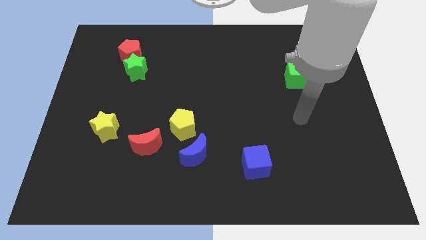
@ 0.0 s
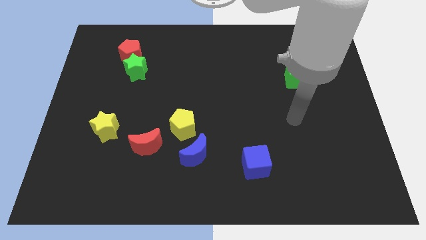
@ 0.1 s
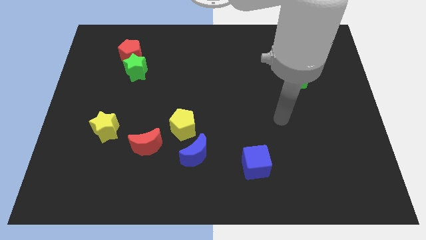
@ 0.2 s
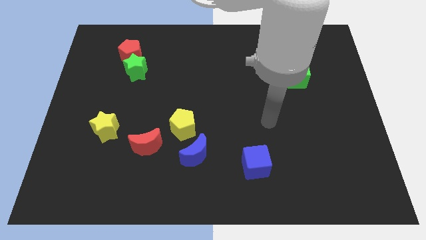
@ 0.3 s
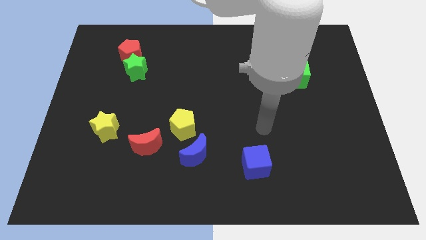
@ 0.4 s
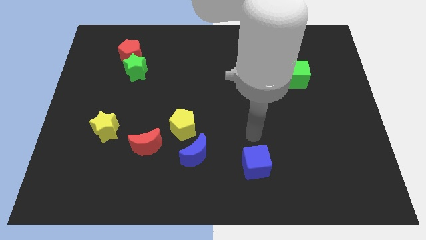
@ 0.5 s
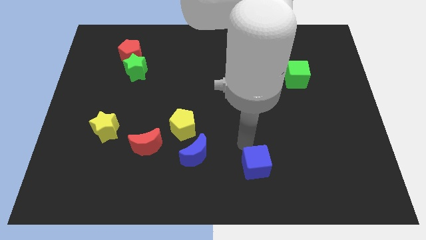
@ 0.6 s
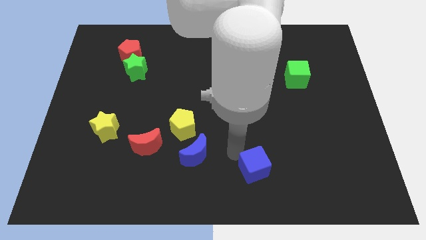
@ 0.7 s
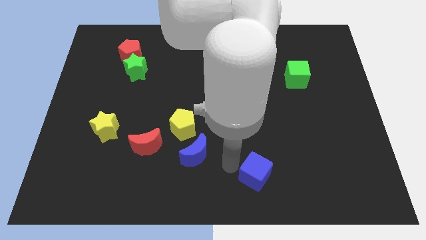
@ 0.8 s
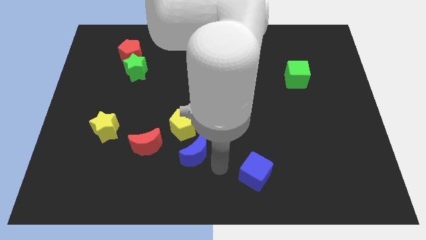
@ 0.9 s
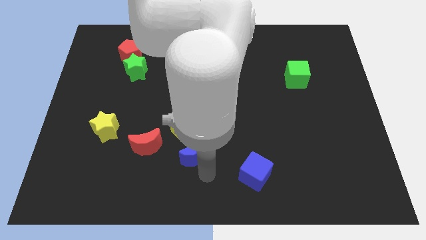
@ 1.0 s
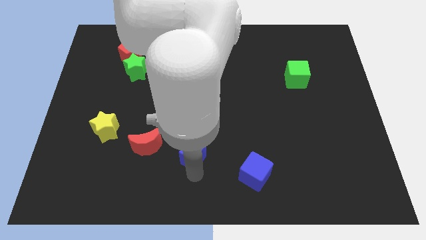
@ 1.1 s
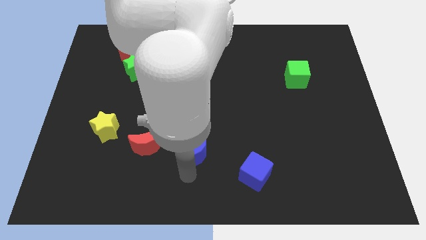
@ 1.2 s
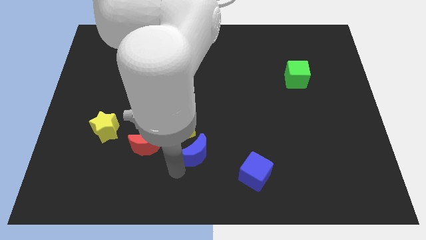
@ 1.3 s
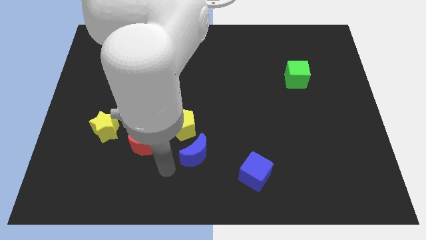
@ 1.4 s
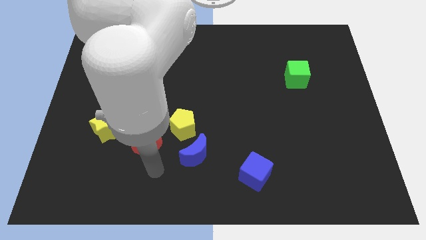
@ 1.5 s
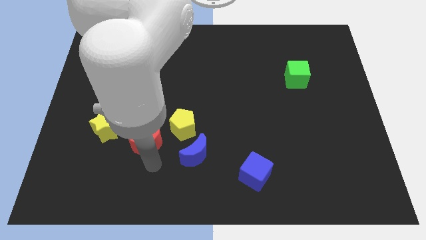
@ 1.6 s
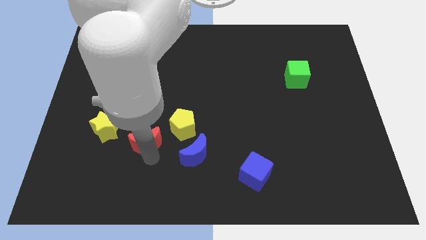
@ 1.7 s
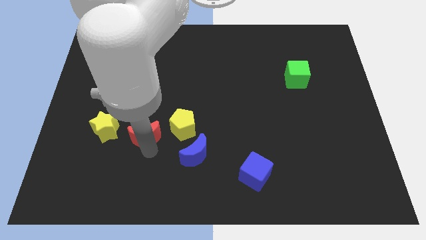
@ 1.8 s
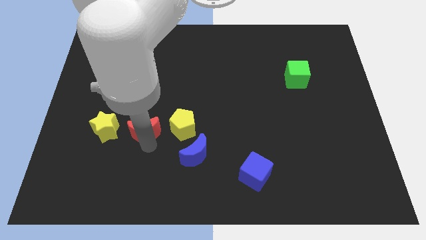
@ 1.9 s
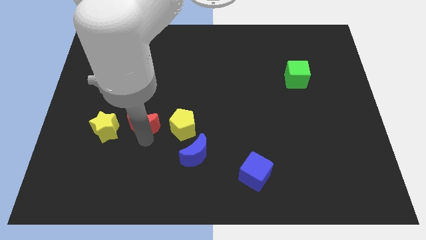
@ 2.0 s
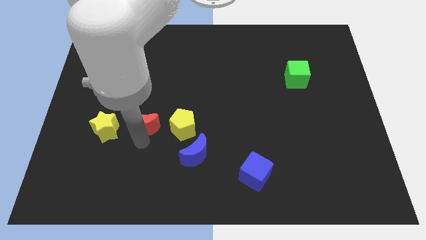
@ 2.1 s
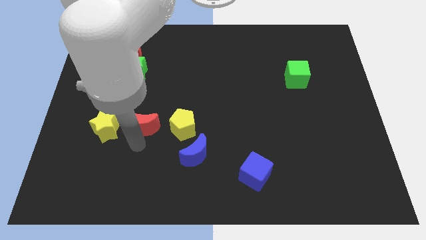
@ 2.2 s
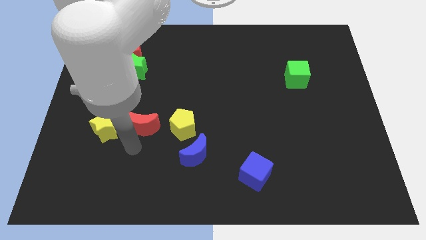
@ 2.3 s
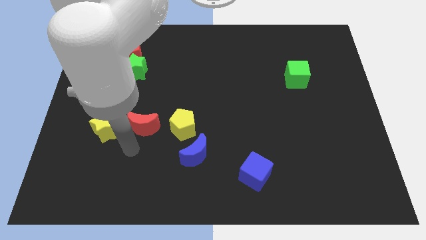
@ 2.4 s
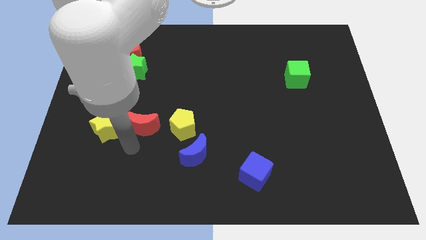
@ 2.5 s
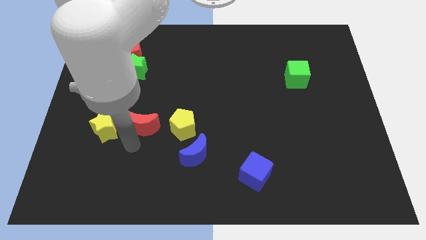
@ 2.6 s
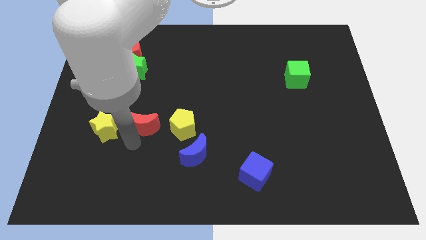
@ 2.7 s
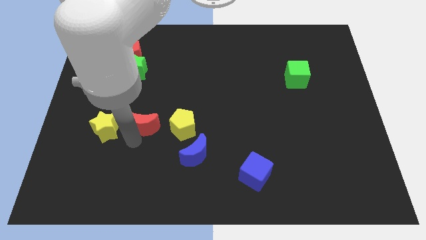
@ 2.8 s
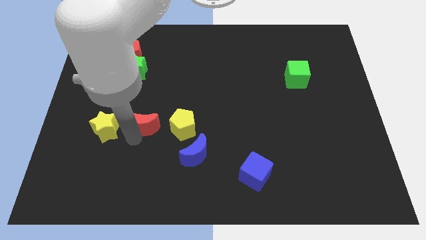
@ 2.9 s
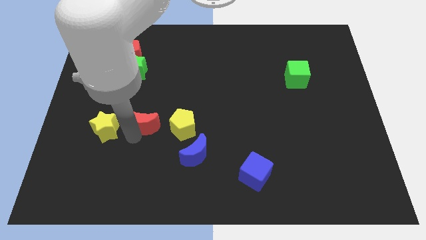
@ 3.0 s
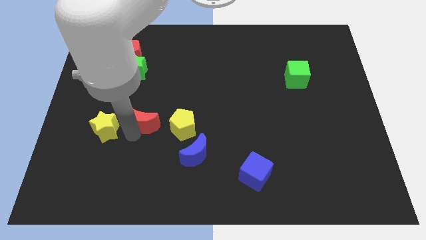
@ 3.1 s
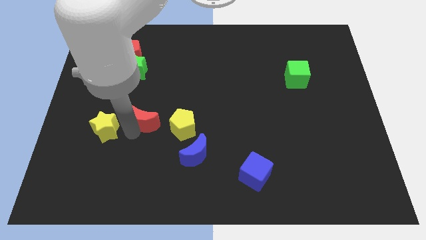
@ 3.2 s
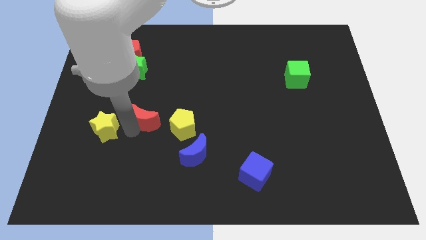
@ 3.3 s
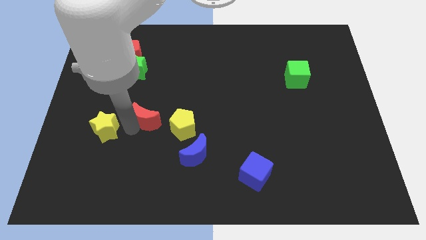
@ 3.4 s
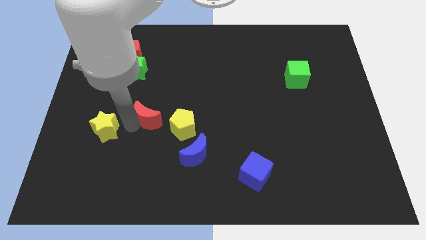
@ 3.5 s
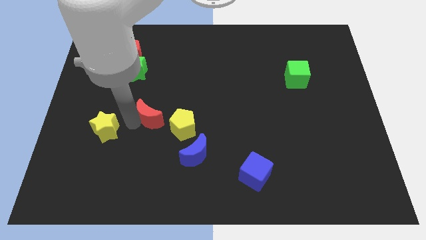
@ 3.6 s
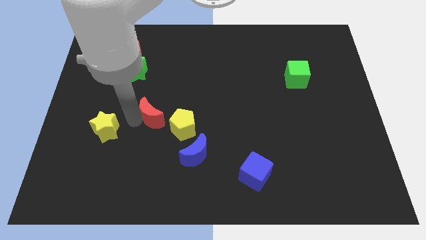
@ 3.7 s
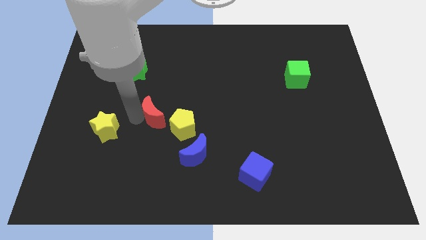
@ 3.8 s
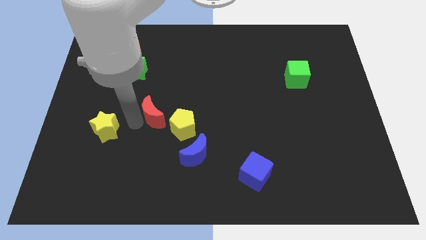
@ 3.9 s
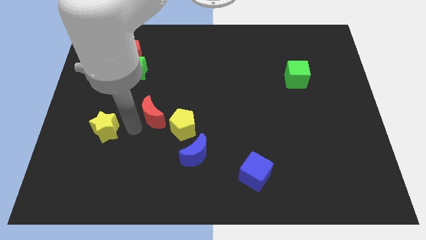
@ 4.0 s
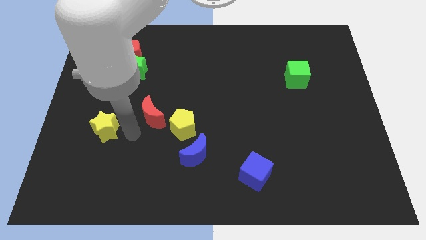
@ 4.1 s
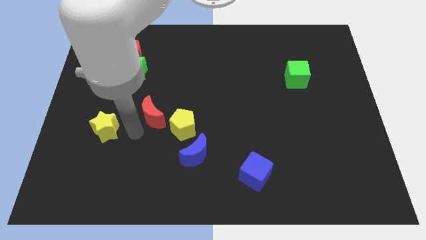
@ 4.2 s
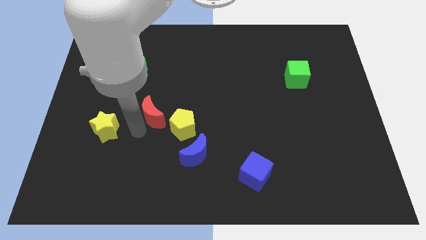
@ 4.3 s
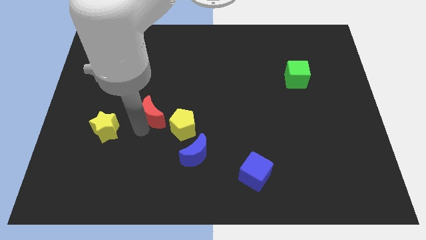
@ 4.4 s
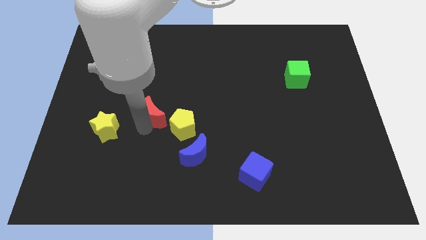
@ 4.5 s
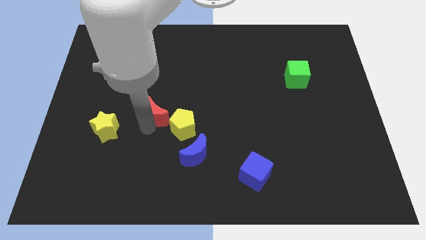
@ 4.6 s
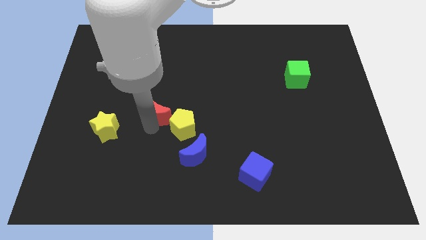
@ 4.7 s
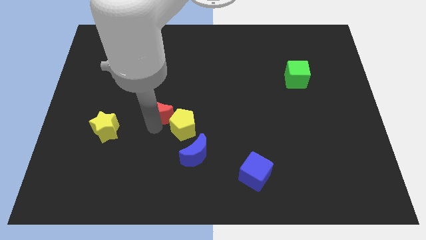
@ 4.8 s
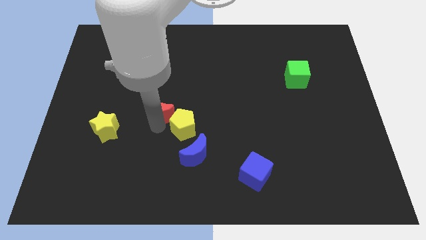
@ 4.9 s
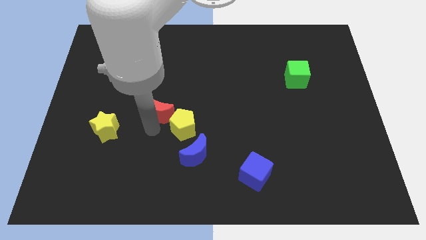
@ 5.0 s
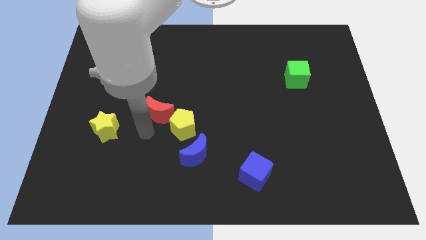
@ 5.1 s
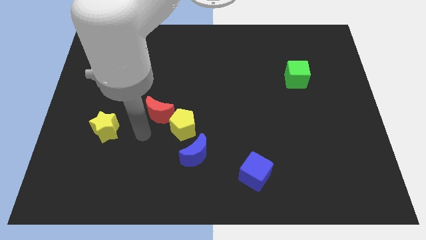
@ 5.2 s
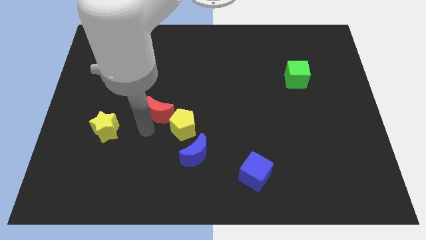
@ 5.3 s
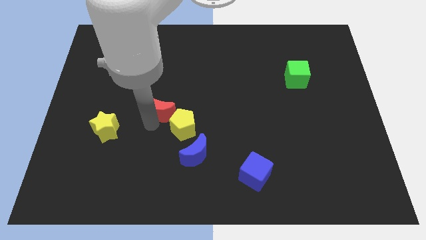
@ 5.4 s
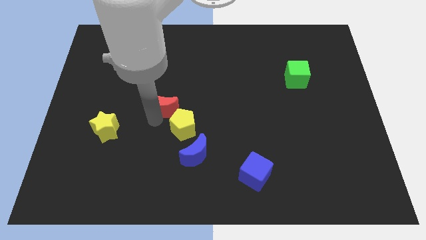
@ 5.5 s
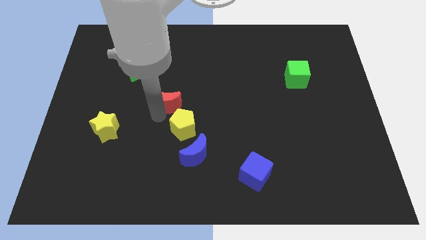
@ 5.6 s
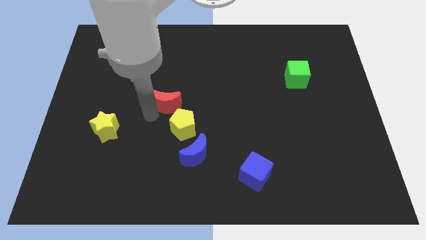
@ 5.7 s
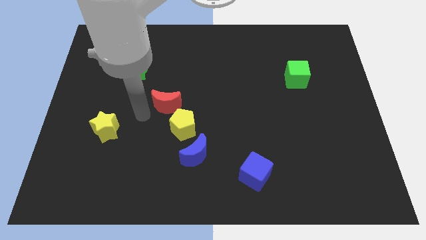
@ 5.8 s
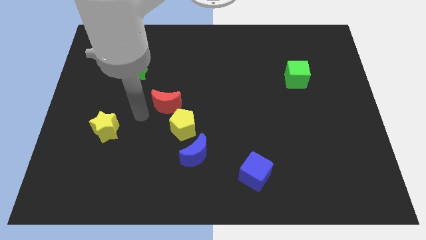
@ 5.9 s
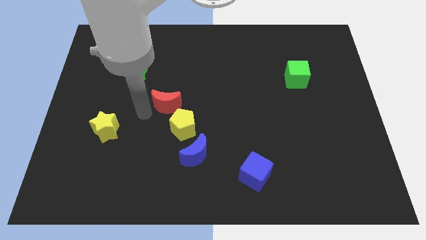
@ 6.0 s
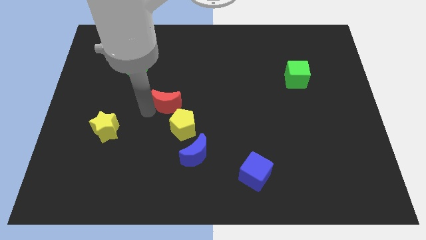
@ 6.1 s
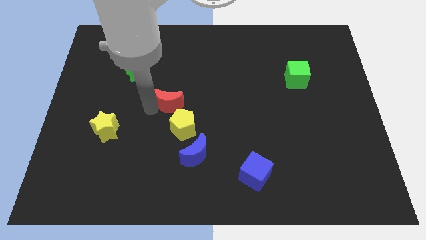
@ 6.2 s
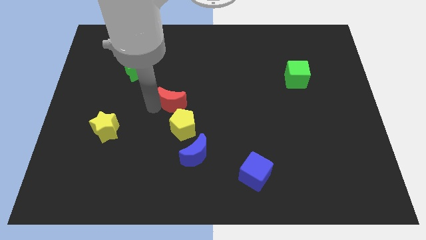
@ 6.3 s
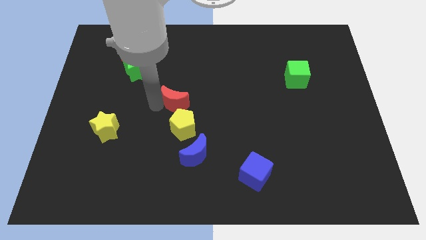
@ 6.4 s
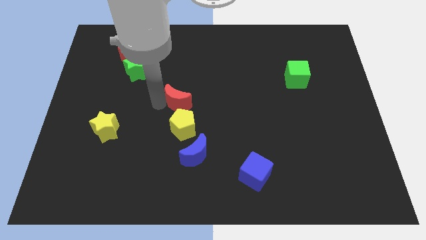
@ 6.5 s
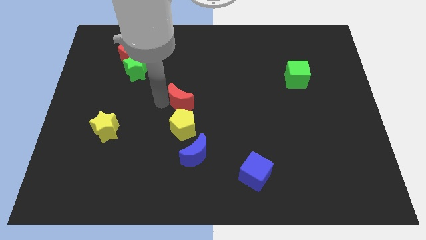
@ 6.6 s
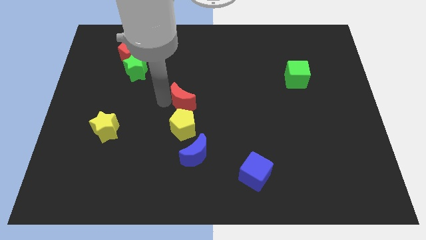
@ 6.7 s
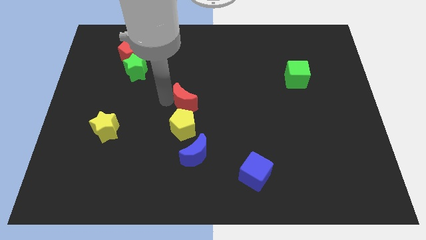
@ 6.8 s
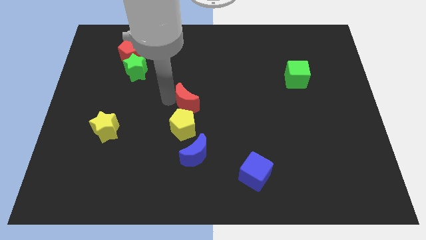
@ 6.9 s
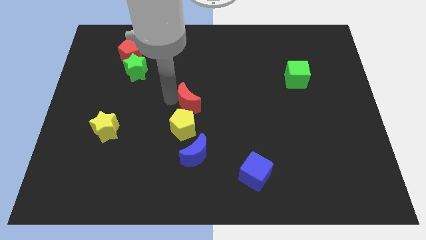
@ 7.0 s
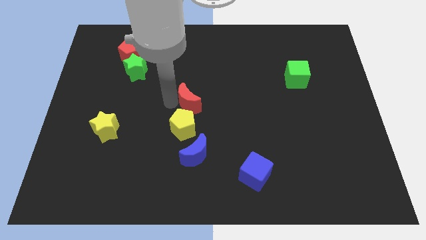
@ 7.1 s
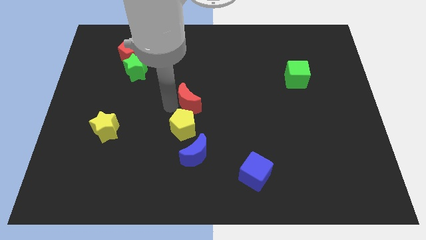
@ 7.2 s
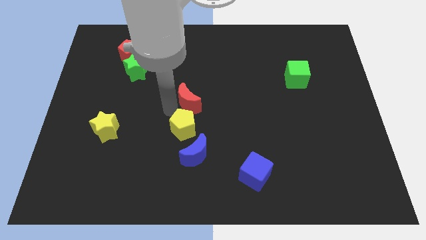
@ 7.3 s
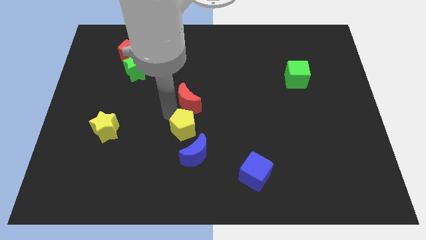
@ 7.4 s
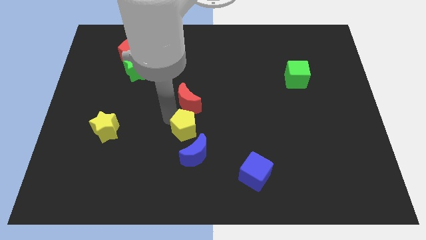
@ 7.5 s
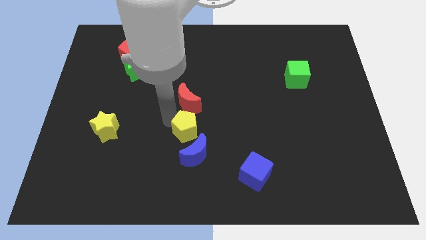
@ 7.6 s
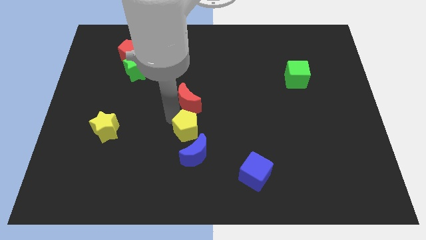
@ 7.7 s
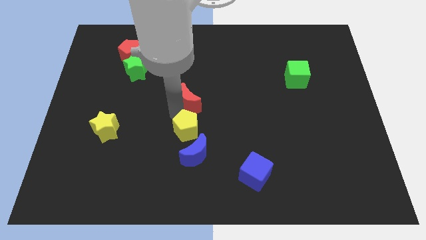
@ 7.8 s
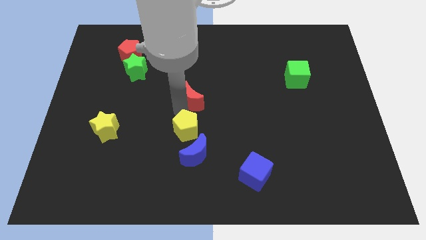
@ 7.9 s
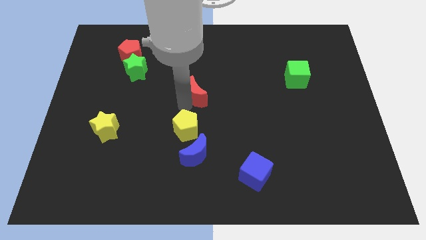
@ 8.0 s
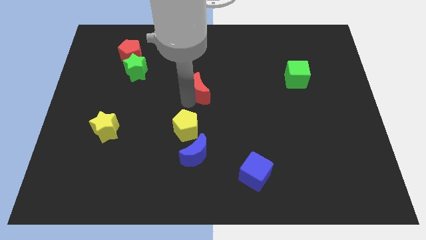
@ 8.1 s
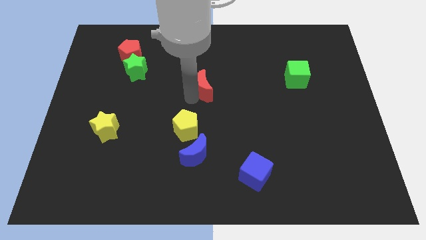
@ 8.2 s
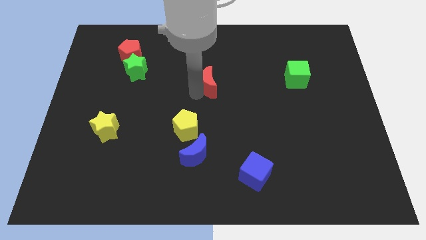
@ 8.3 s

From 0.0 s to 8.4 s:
move the red moon up and then to the right
